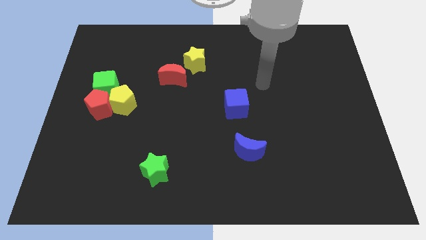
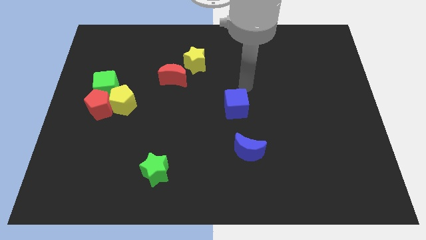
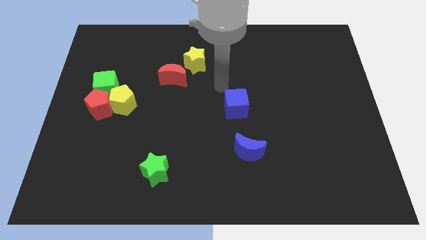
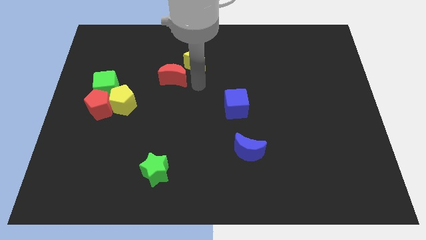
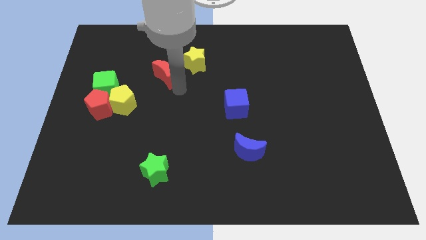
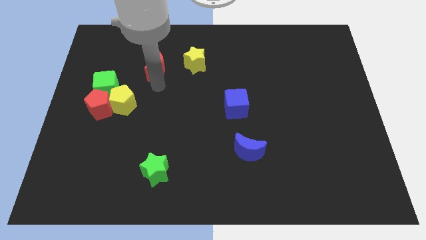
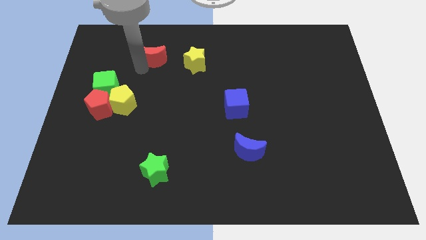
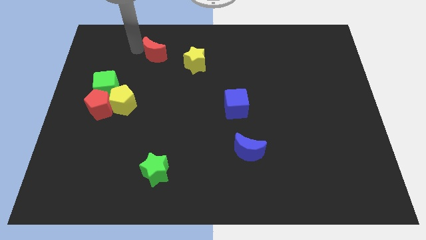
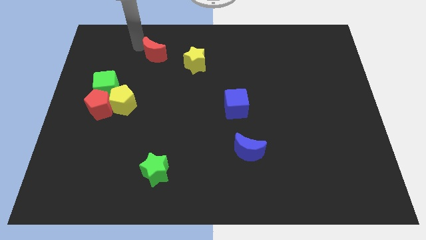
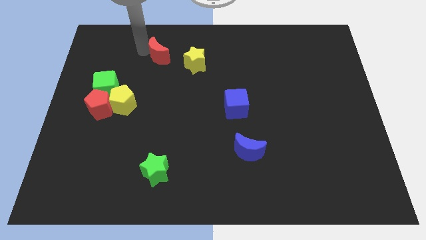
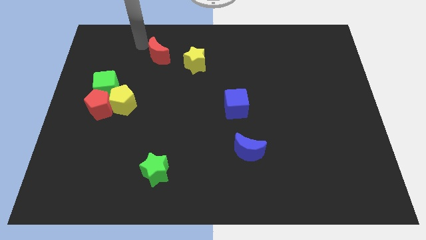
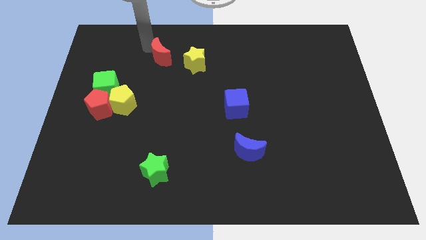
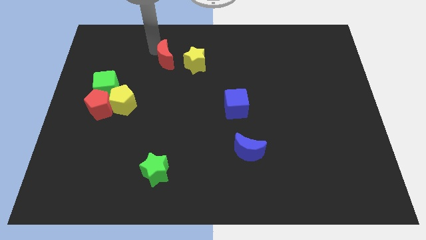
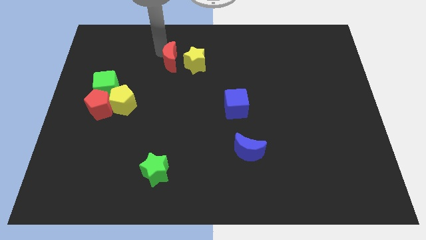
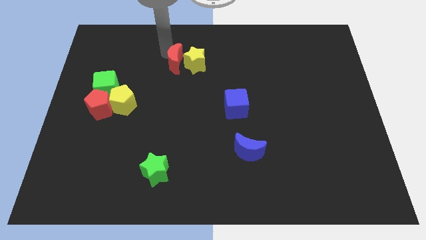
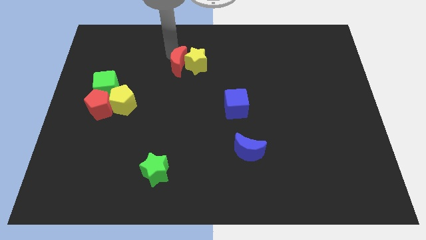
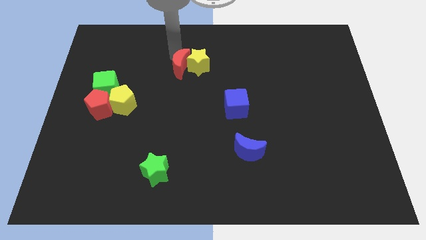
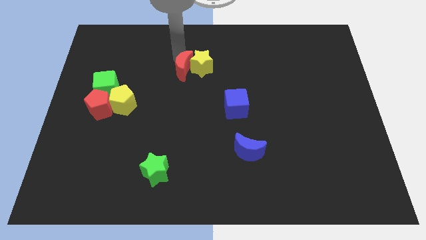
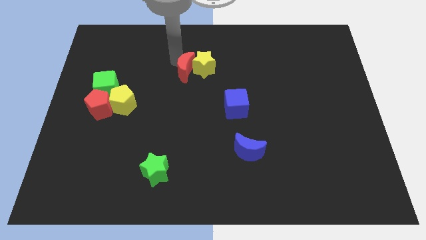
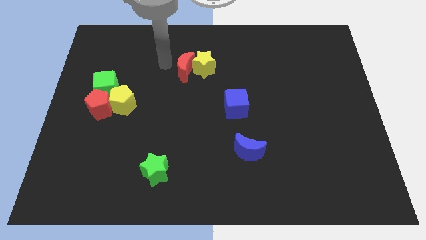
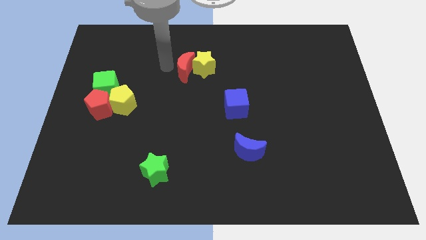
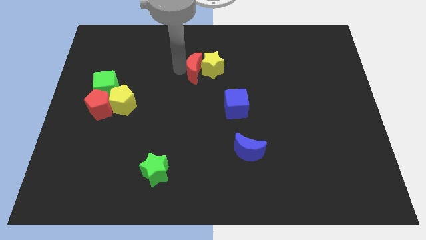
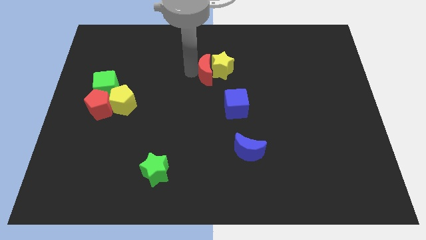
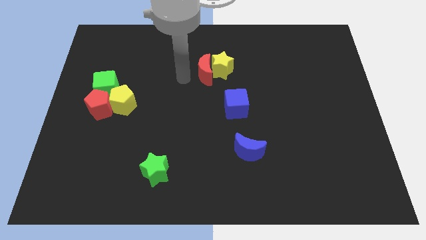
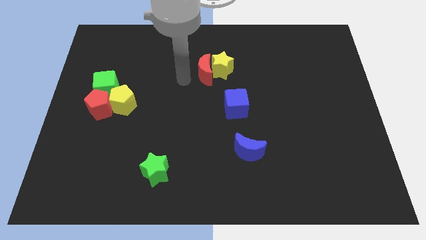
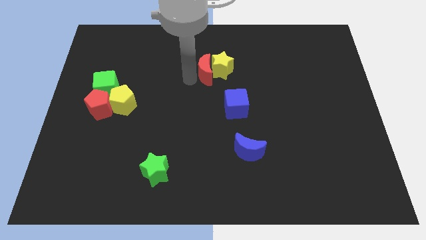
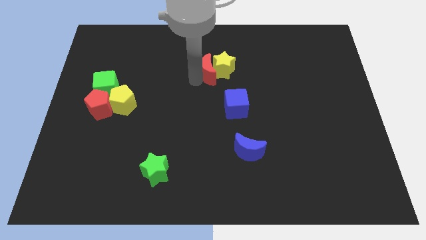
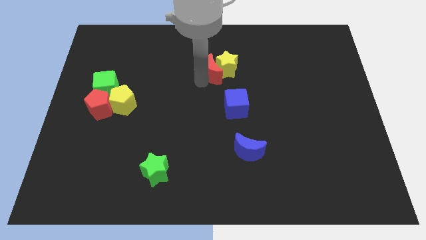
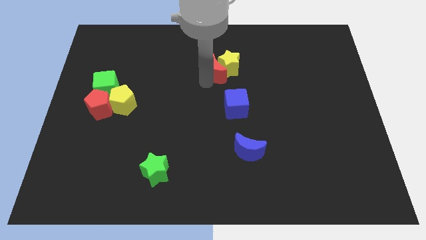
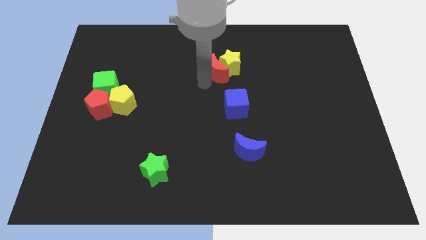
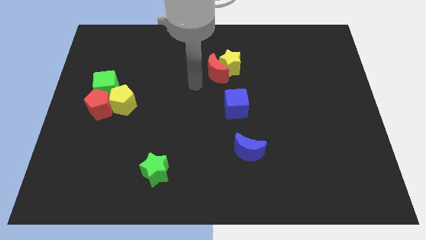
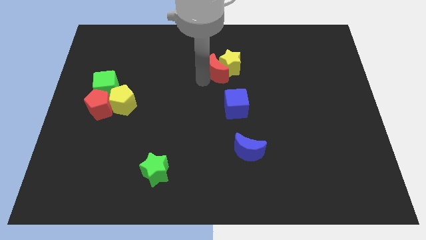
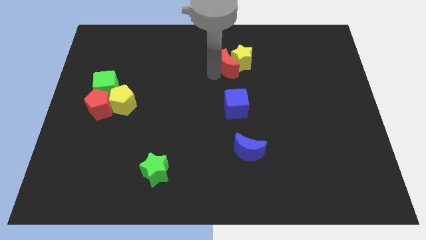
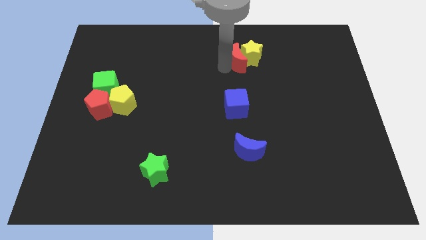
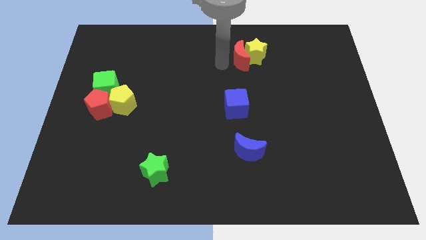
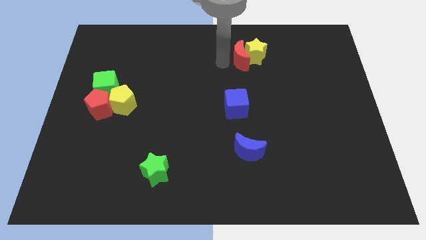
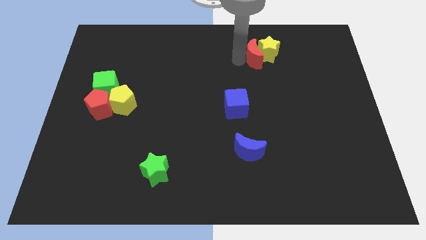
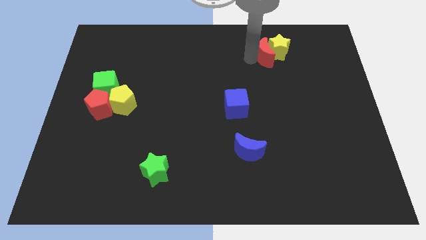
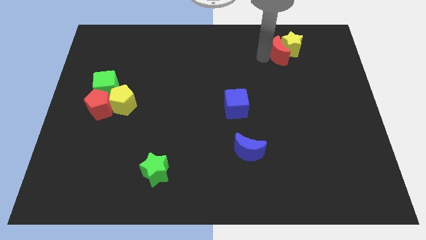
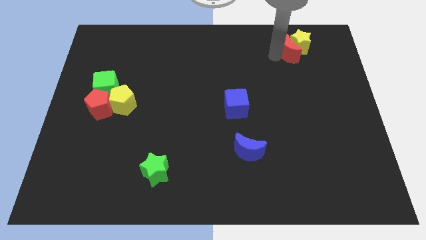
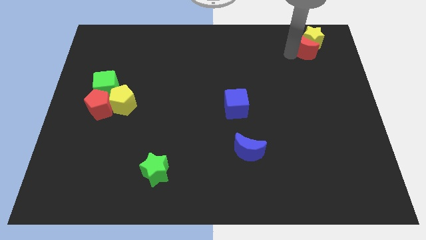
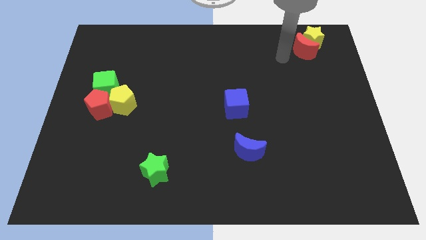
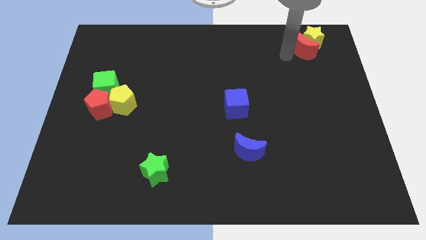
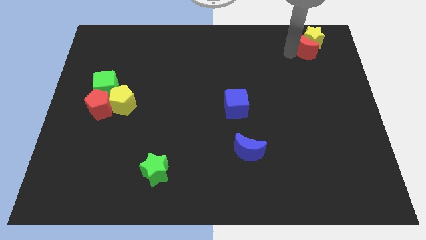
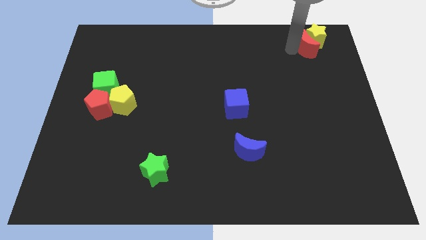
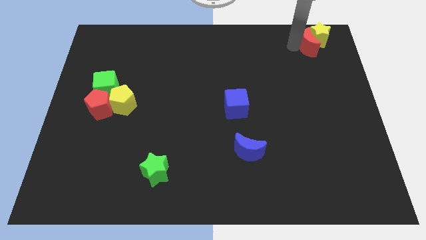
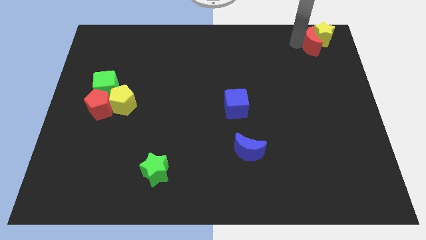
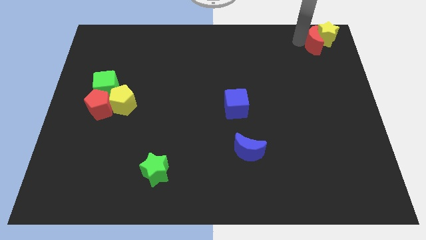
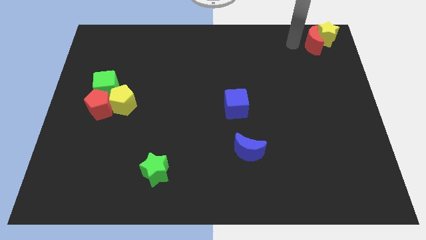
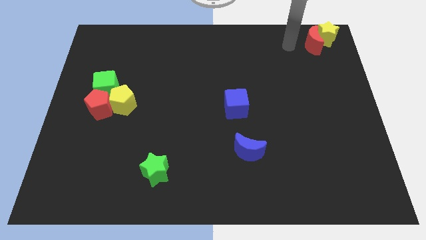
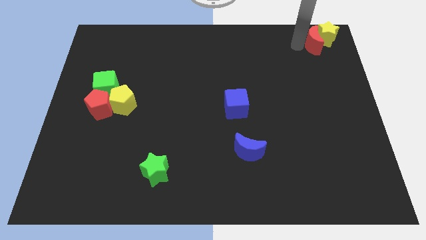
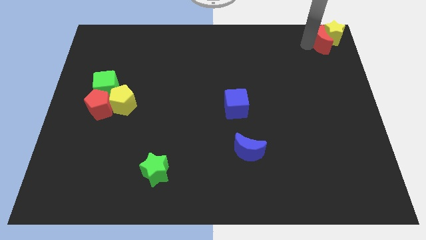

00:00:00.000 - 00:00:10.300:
move the red moon to the top right
